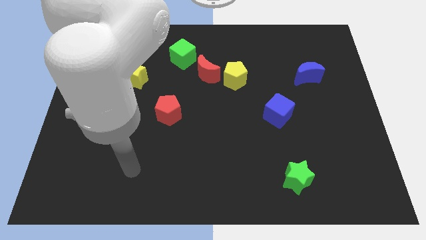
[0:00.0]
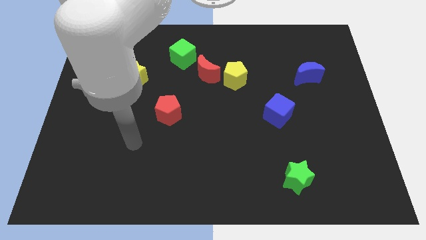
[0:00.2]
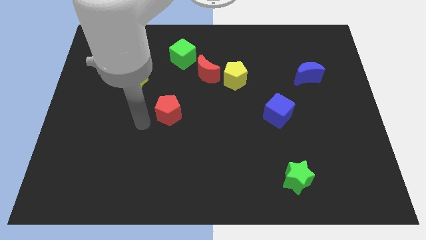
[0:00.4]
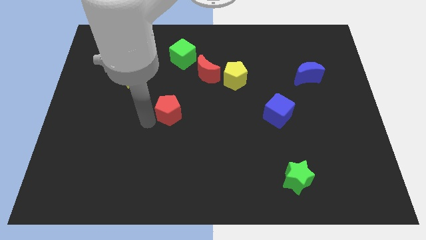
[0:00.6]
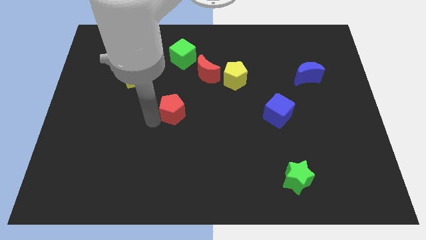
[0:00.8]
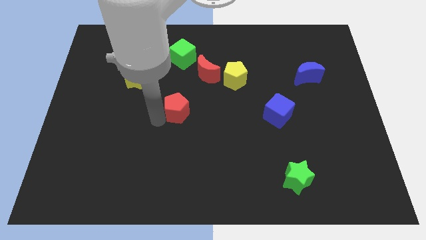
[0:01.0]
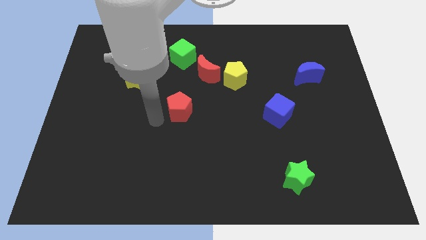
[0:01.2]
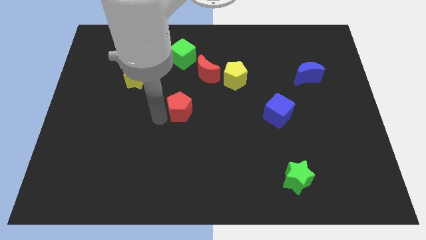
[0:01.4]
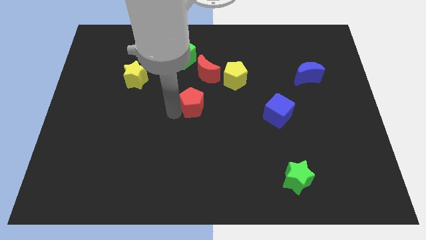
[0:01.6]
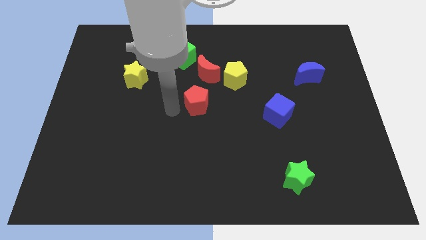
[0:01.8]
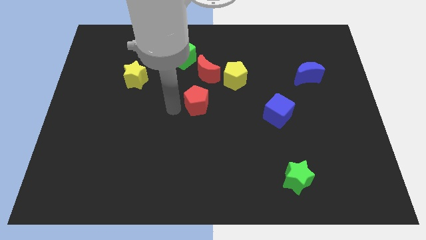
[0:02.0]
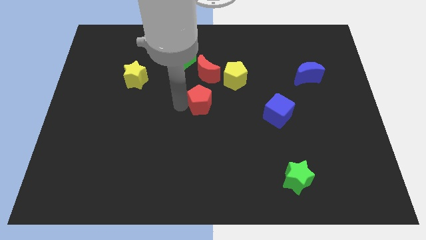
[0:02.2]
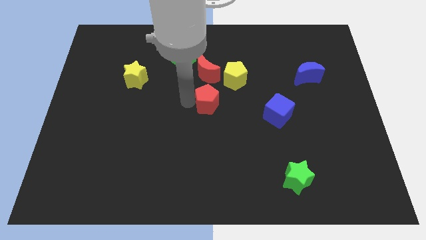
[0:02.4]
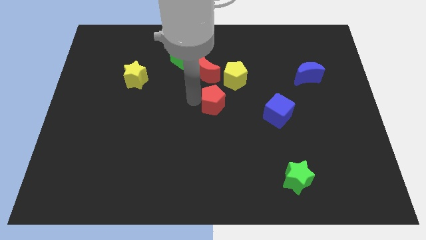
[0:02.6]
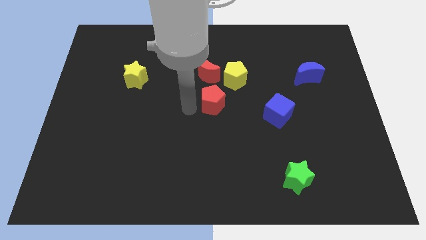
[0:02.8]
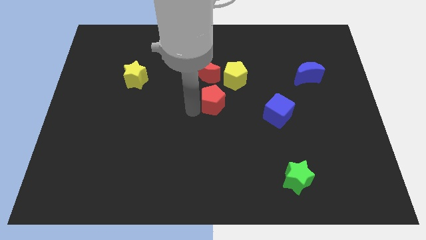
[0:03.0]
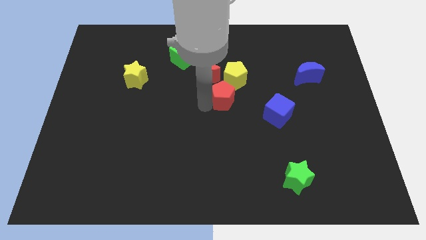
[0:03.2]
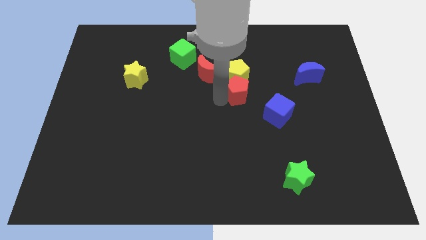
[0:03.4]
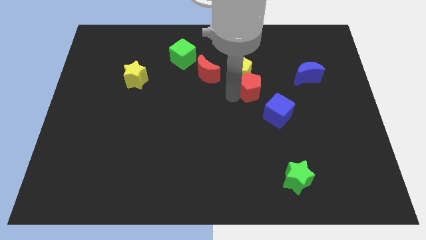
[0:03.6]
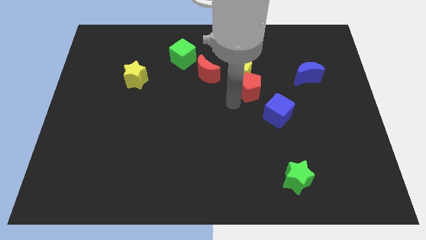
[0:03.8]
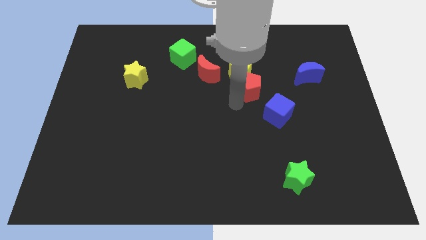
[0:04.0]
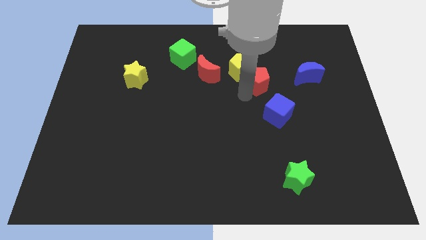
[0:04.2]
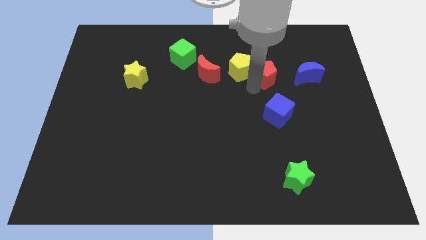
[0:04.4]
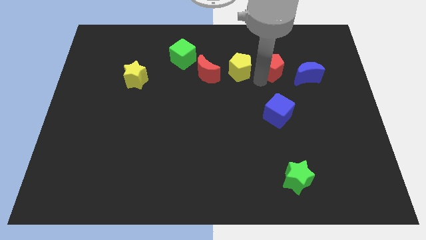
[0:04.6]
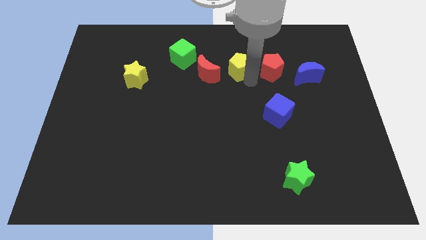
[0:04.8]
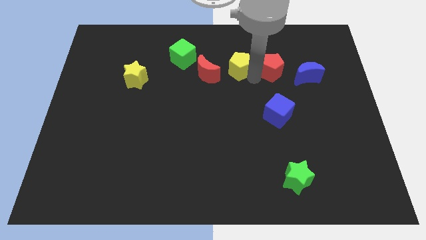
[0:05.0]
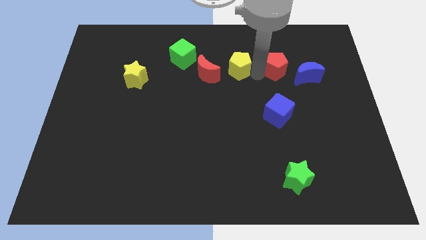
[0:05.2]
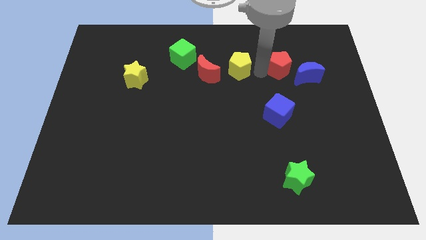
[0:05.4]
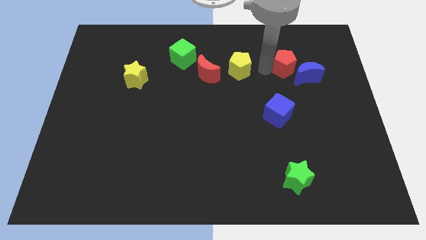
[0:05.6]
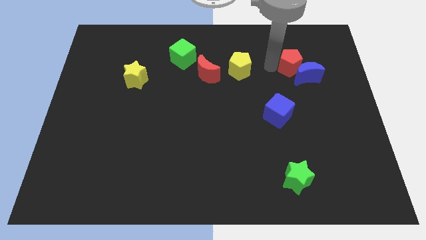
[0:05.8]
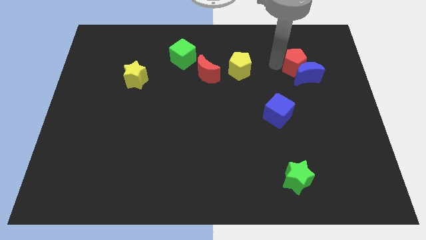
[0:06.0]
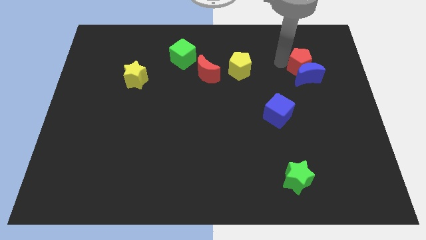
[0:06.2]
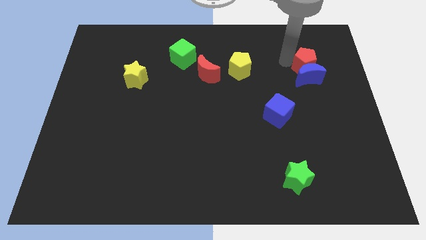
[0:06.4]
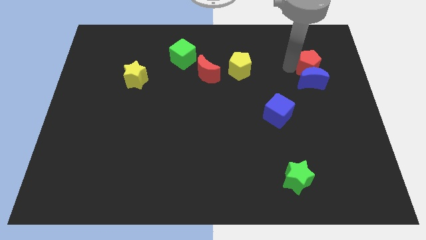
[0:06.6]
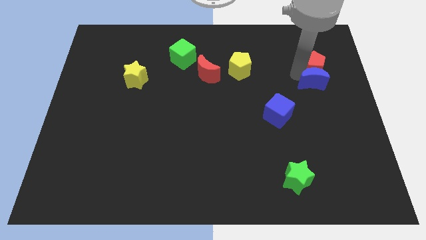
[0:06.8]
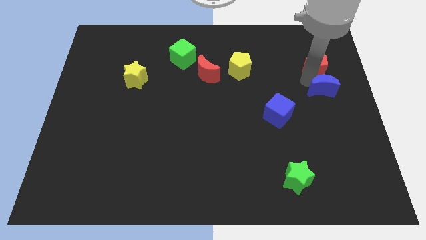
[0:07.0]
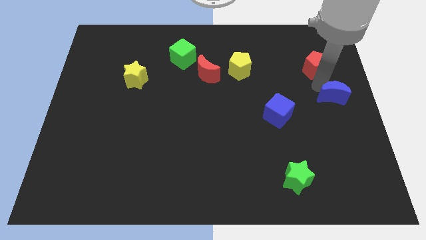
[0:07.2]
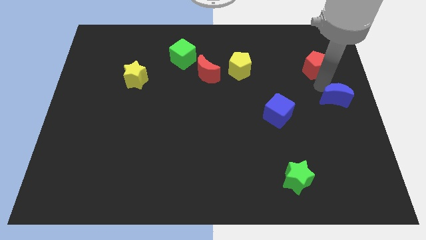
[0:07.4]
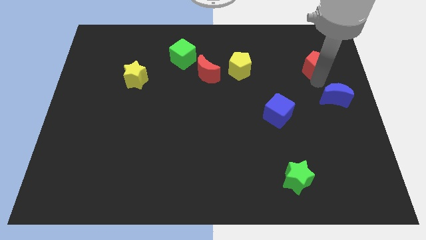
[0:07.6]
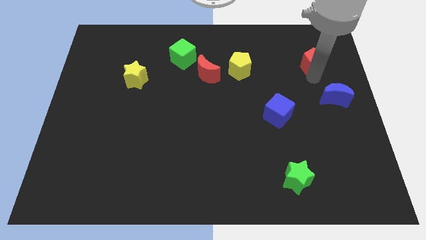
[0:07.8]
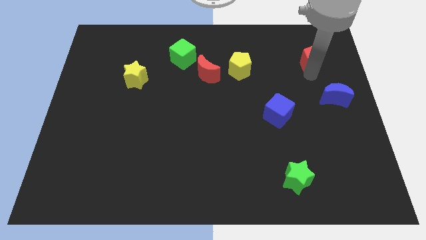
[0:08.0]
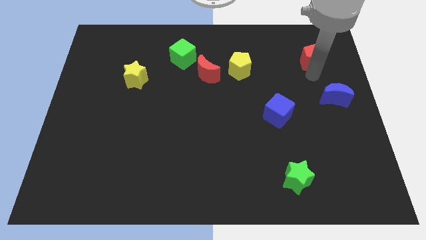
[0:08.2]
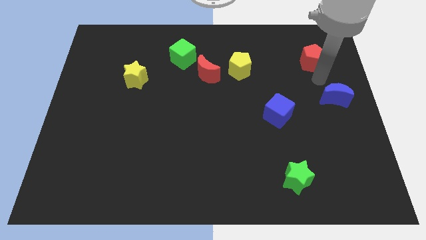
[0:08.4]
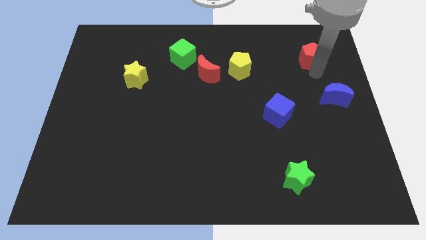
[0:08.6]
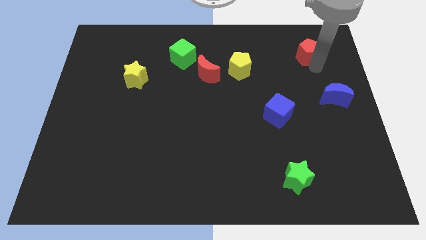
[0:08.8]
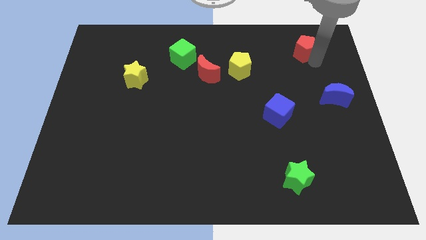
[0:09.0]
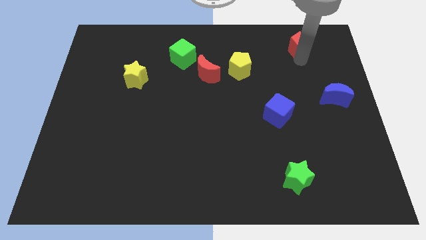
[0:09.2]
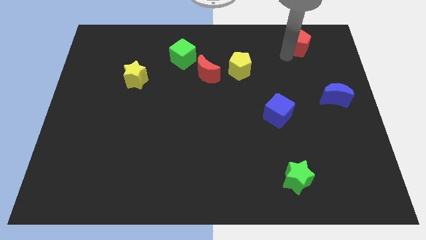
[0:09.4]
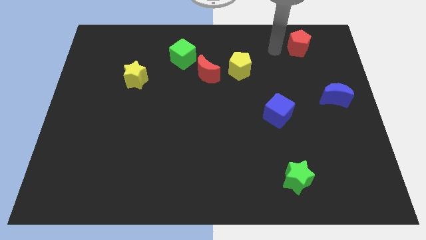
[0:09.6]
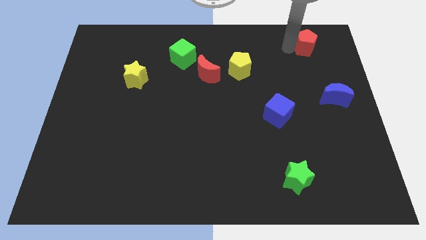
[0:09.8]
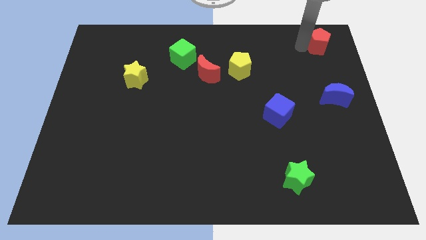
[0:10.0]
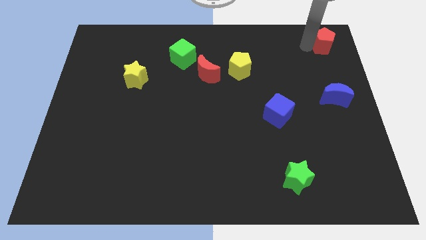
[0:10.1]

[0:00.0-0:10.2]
push the red pentagon to the top right of the board

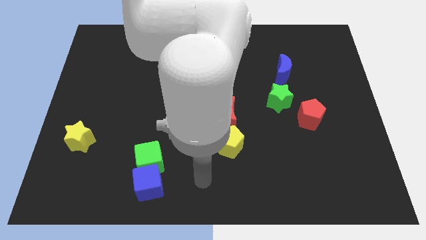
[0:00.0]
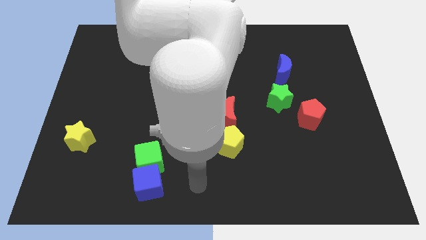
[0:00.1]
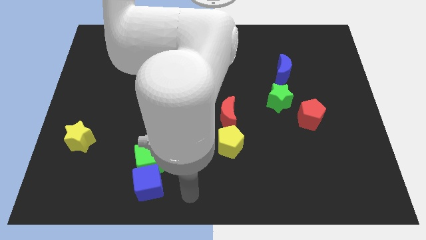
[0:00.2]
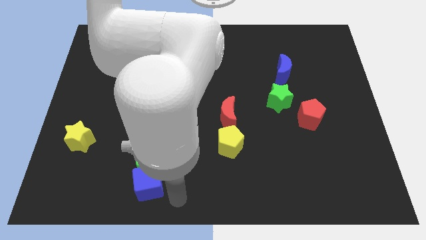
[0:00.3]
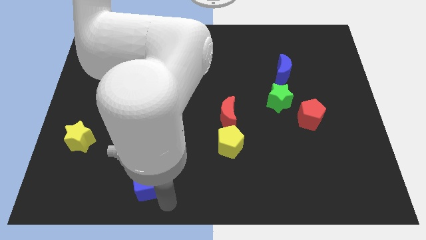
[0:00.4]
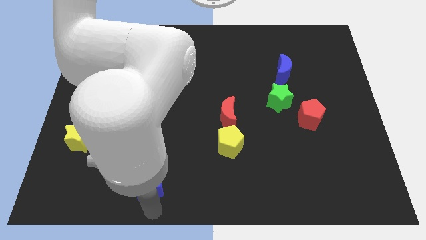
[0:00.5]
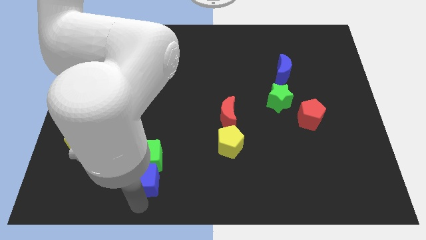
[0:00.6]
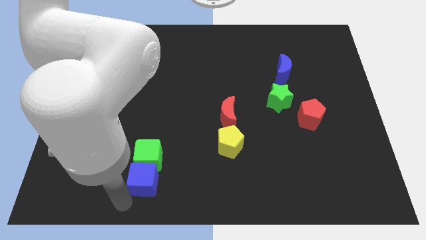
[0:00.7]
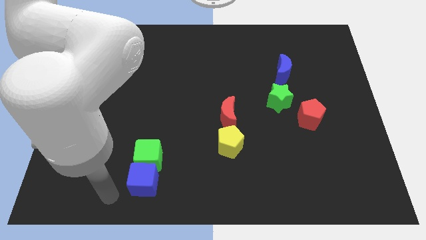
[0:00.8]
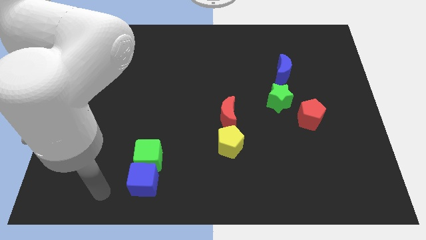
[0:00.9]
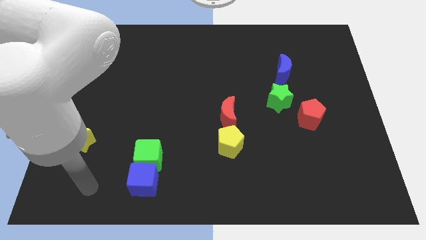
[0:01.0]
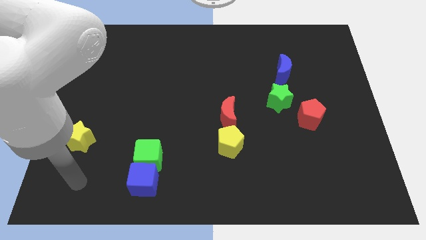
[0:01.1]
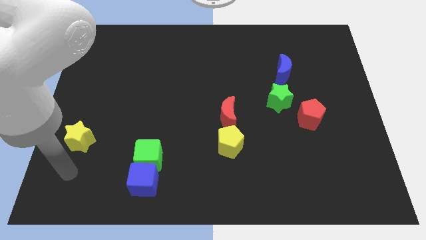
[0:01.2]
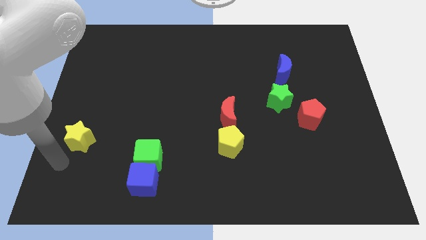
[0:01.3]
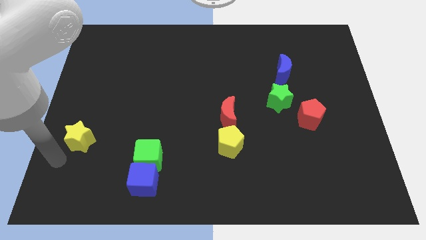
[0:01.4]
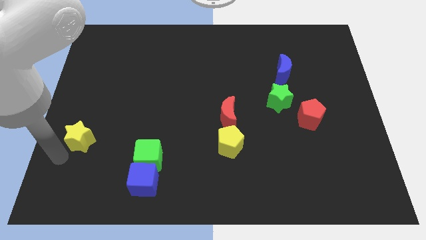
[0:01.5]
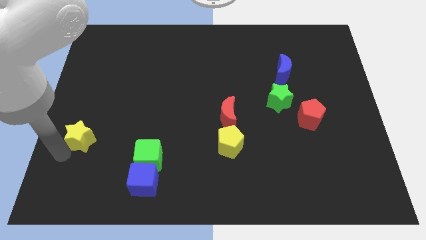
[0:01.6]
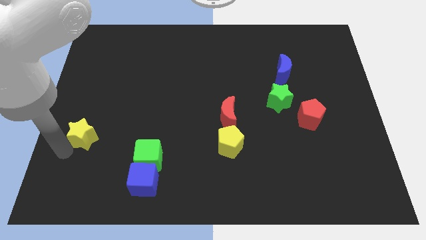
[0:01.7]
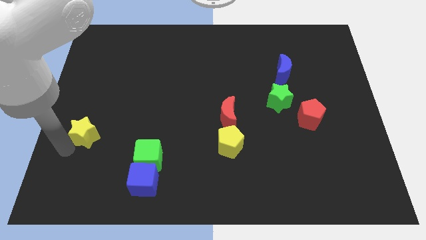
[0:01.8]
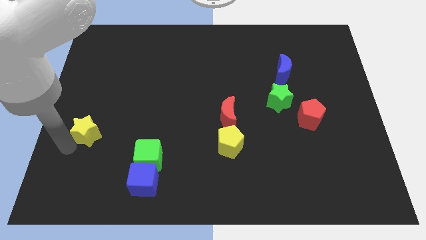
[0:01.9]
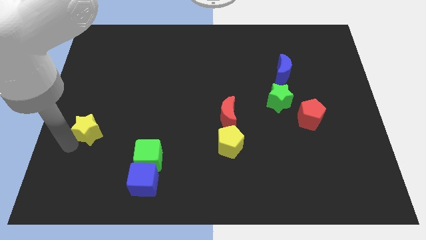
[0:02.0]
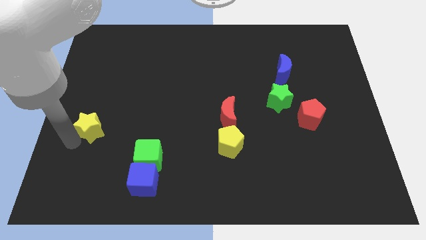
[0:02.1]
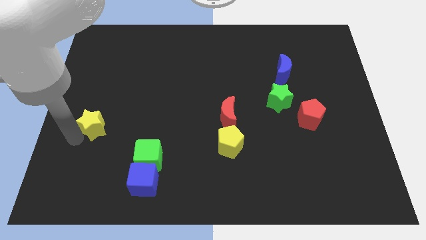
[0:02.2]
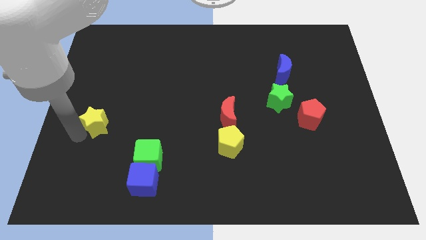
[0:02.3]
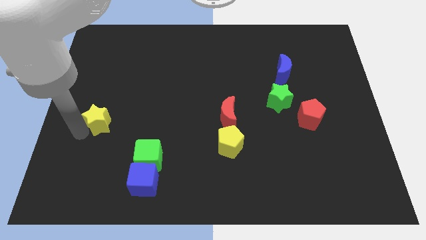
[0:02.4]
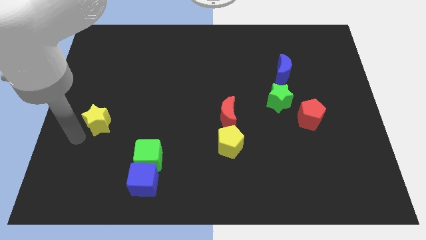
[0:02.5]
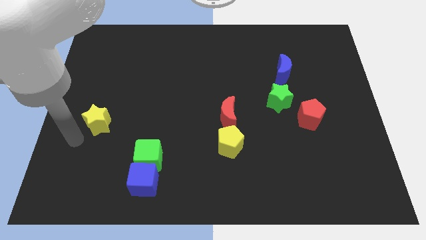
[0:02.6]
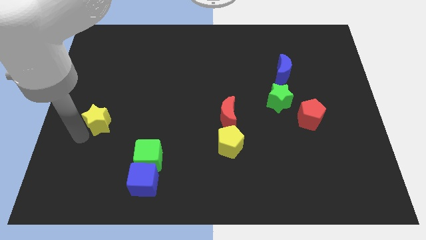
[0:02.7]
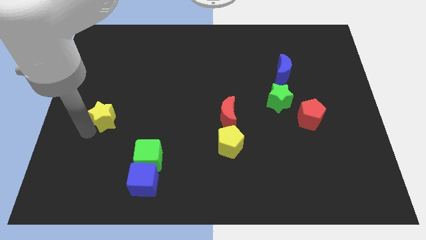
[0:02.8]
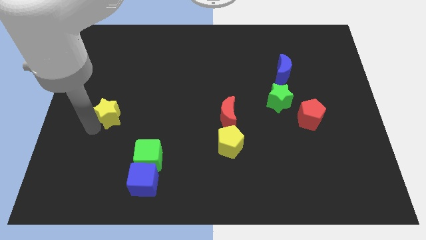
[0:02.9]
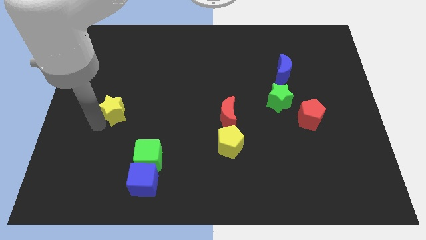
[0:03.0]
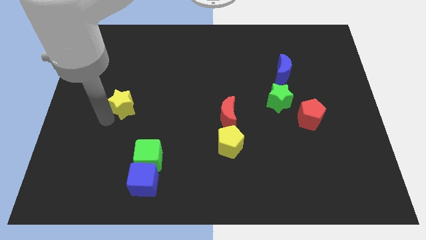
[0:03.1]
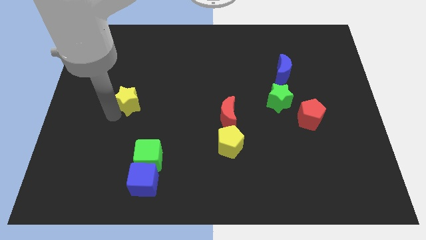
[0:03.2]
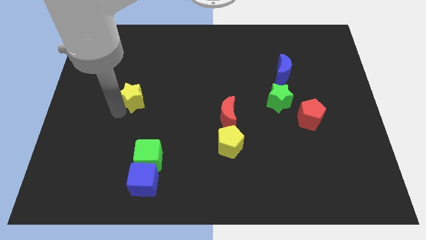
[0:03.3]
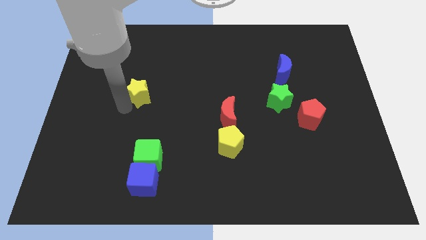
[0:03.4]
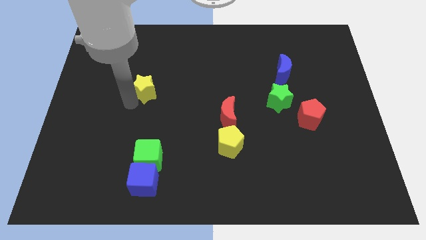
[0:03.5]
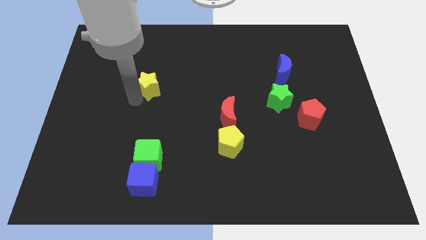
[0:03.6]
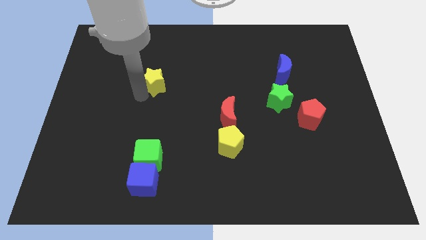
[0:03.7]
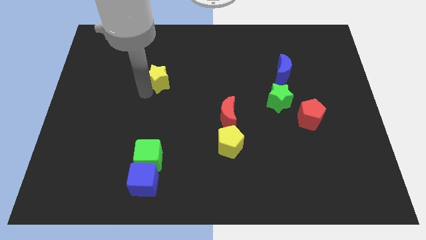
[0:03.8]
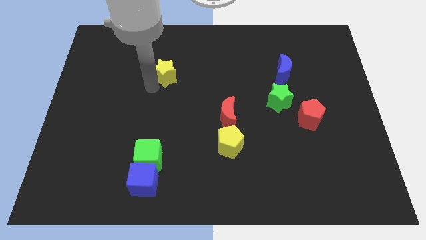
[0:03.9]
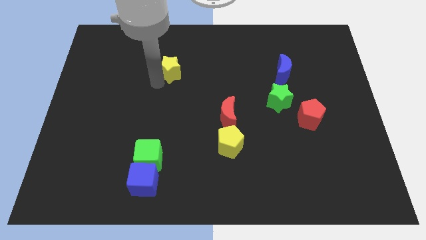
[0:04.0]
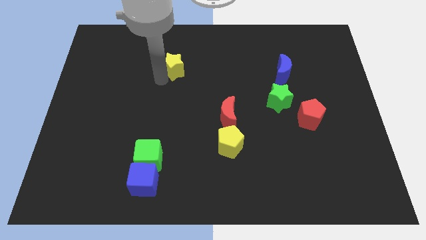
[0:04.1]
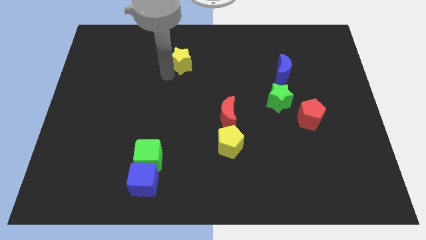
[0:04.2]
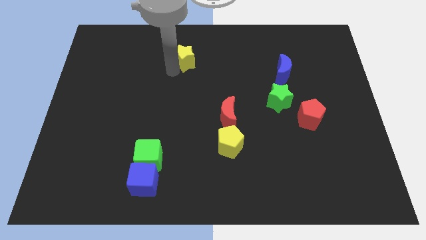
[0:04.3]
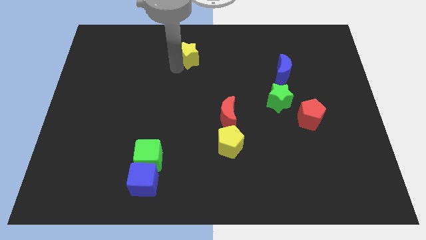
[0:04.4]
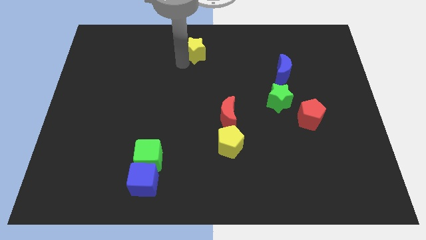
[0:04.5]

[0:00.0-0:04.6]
move the yellow star to the top side
